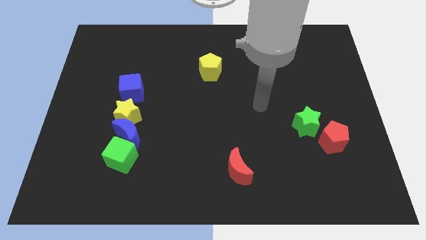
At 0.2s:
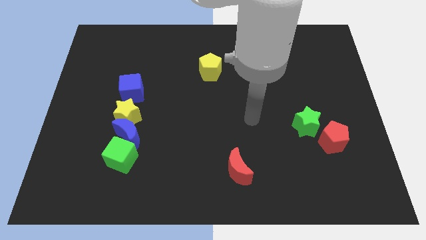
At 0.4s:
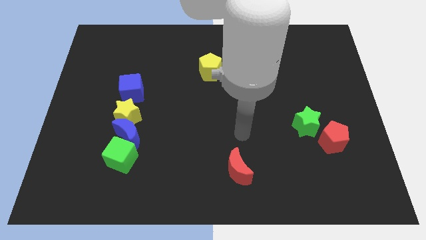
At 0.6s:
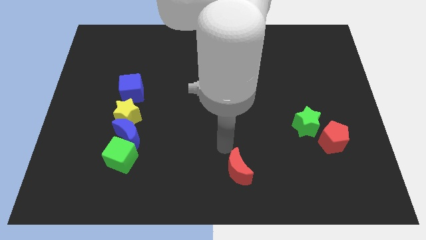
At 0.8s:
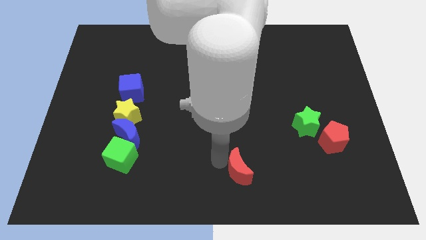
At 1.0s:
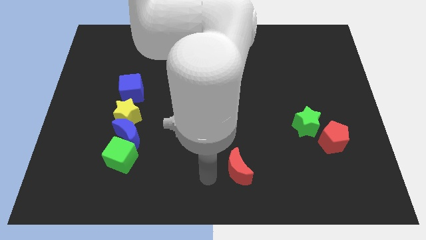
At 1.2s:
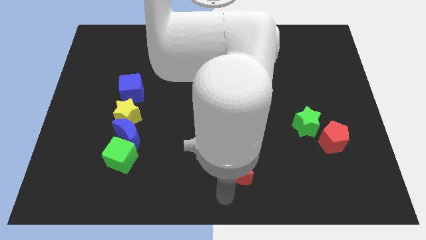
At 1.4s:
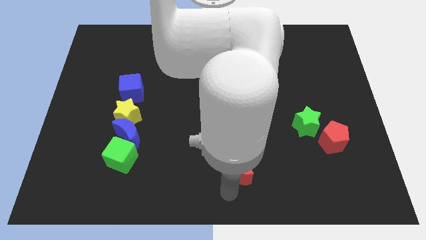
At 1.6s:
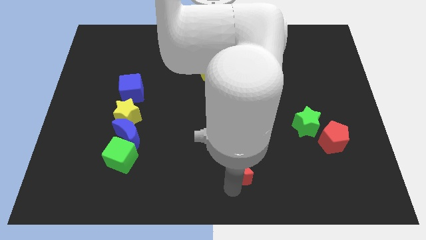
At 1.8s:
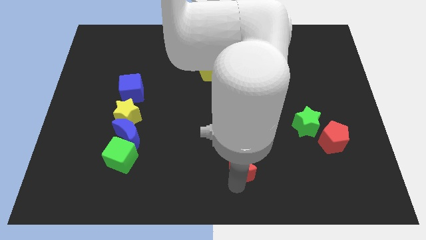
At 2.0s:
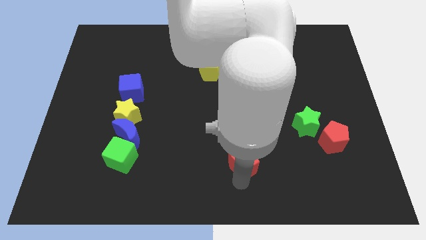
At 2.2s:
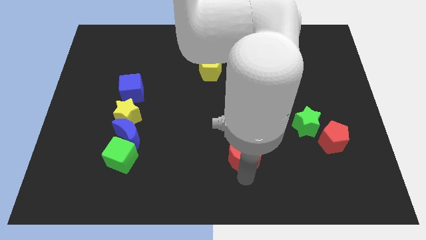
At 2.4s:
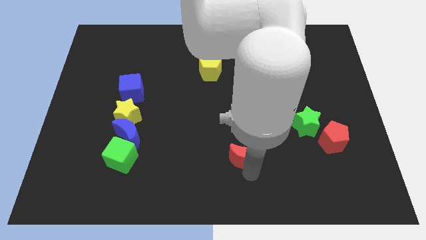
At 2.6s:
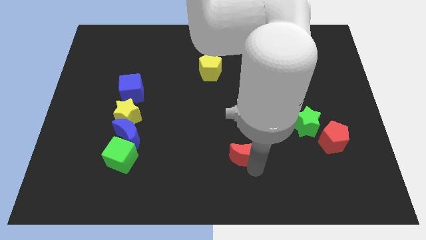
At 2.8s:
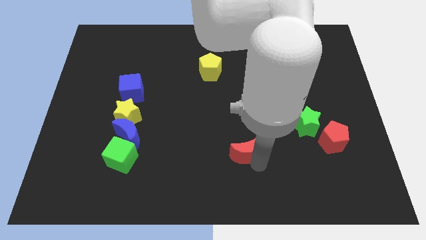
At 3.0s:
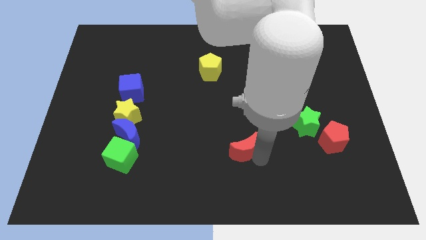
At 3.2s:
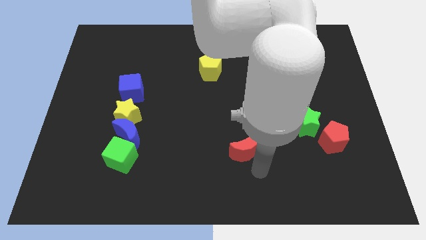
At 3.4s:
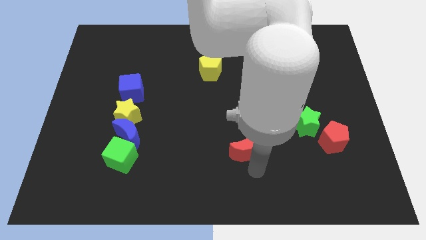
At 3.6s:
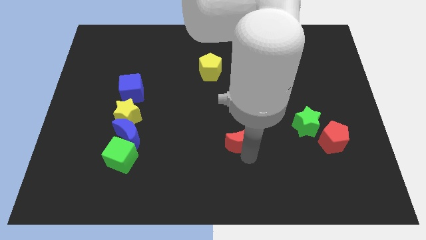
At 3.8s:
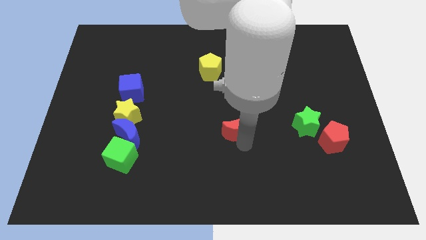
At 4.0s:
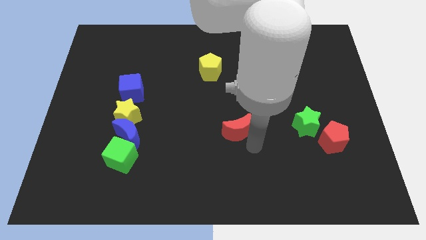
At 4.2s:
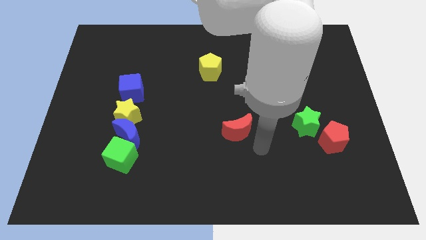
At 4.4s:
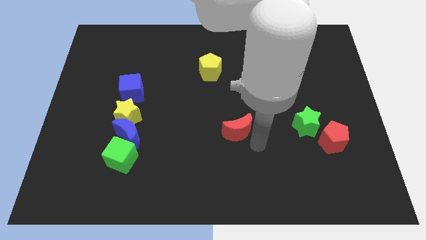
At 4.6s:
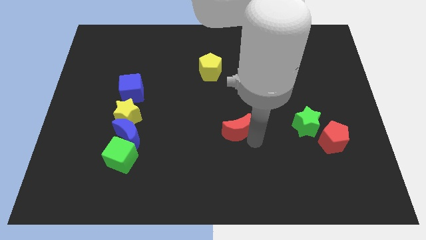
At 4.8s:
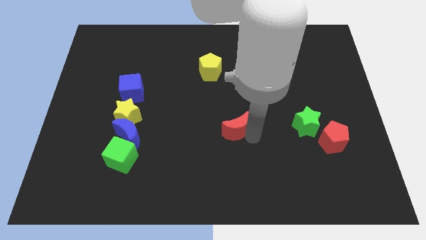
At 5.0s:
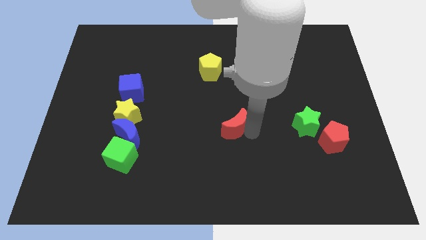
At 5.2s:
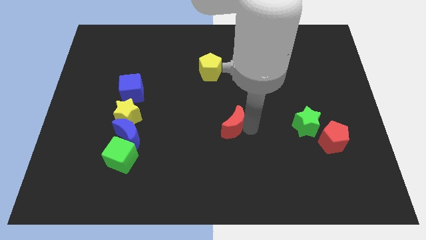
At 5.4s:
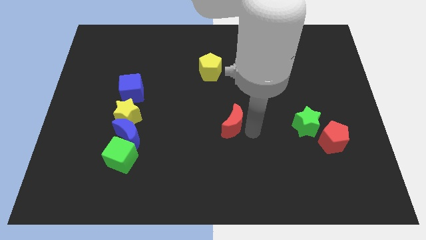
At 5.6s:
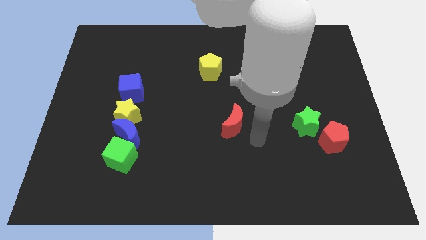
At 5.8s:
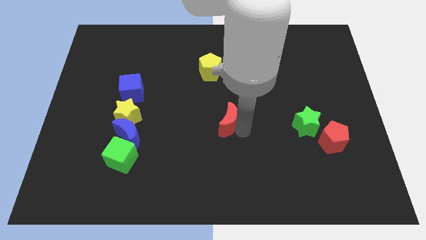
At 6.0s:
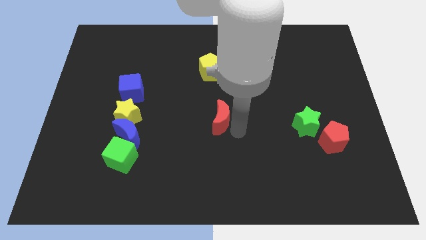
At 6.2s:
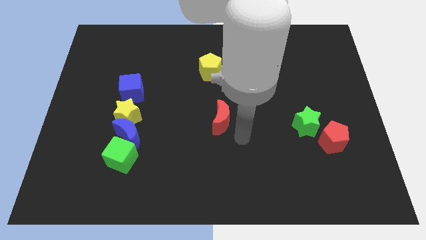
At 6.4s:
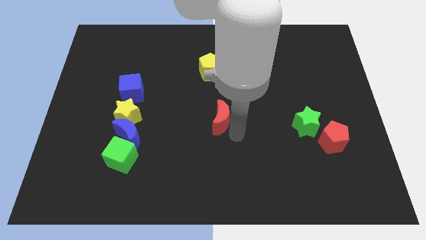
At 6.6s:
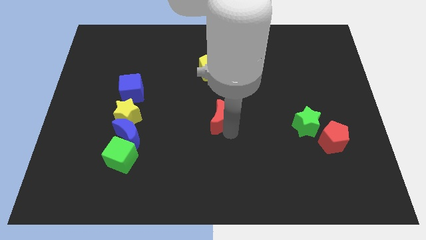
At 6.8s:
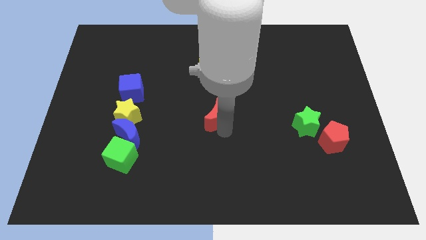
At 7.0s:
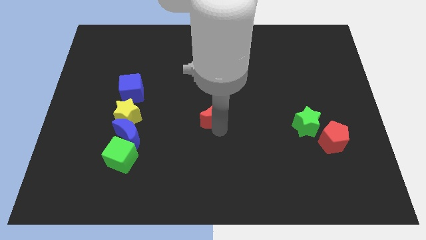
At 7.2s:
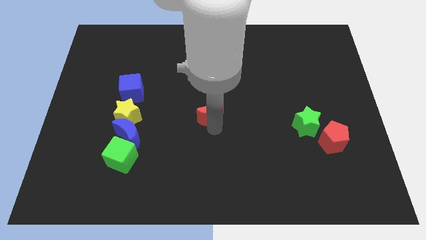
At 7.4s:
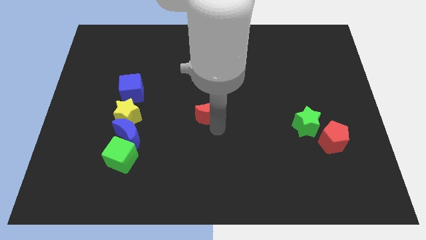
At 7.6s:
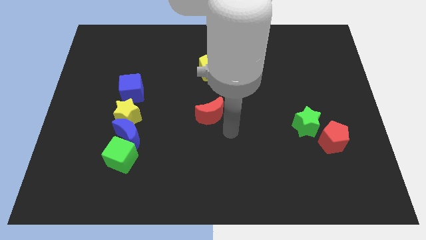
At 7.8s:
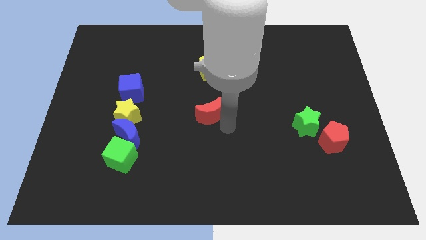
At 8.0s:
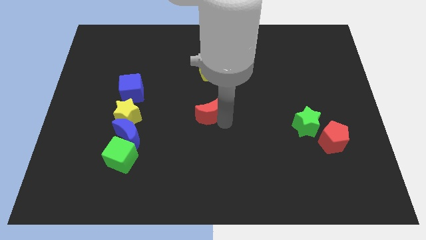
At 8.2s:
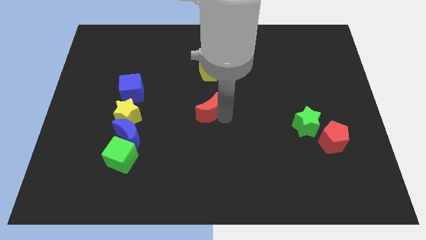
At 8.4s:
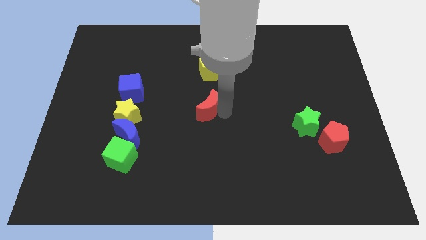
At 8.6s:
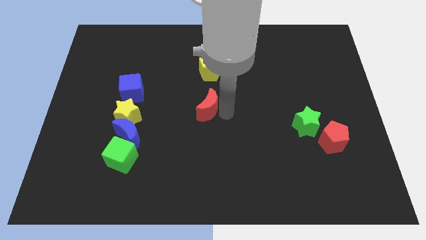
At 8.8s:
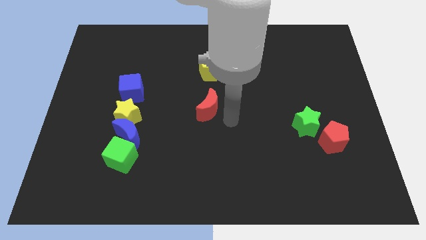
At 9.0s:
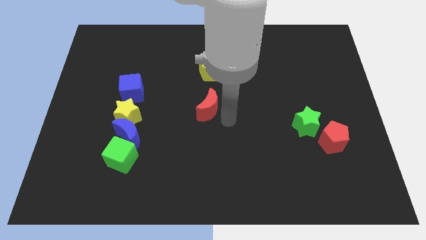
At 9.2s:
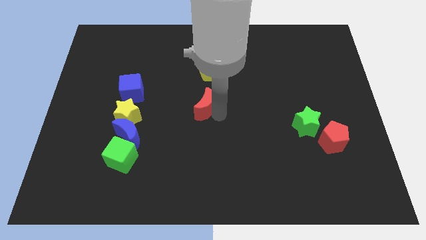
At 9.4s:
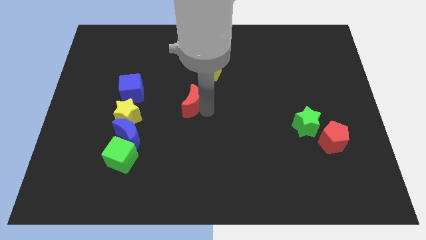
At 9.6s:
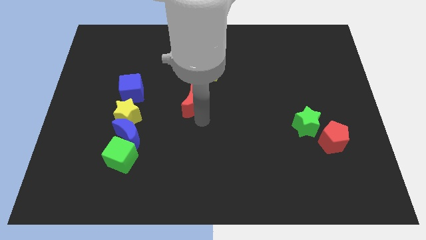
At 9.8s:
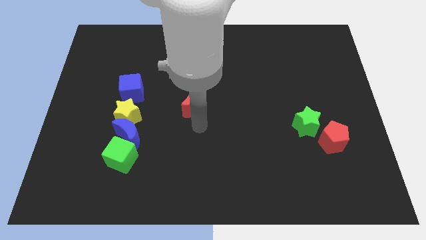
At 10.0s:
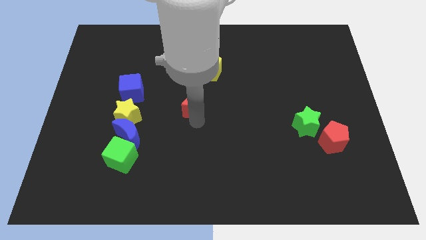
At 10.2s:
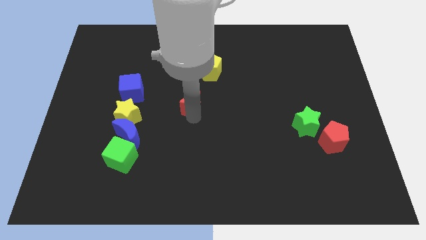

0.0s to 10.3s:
slide the red moon to the bottom left side of the yellow pentagon

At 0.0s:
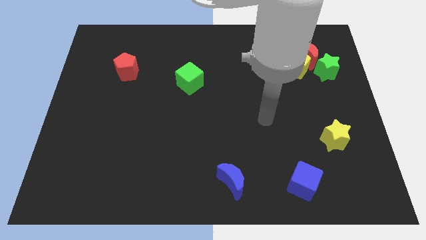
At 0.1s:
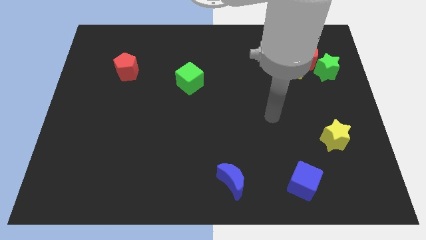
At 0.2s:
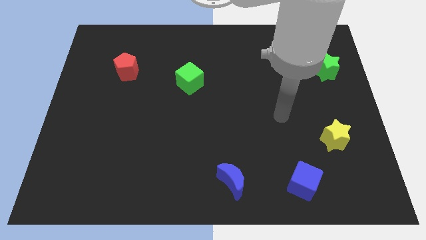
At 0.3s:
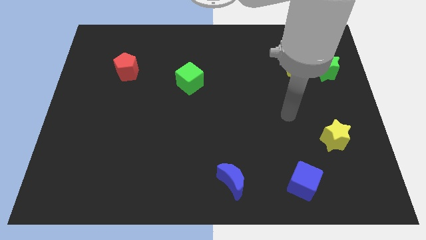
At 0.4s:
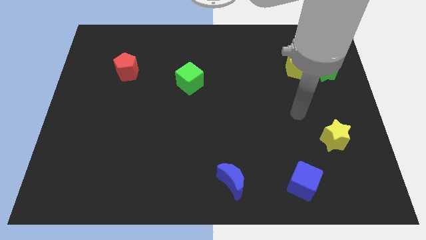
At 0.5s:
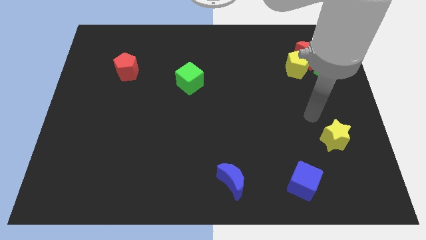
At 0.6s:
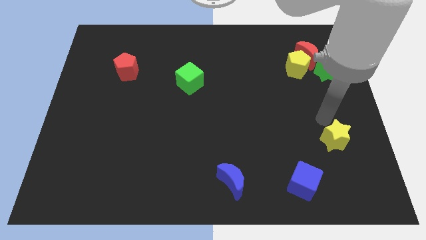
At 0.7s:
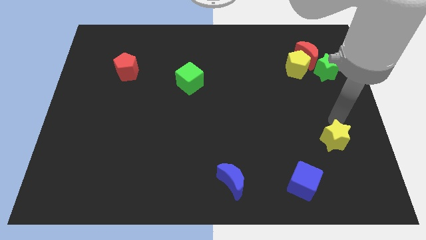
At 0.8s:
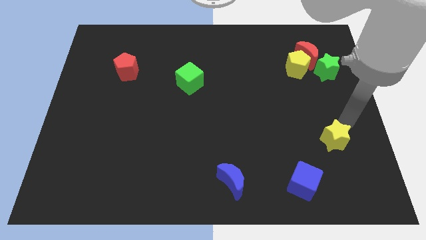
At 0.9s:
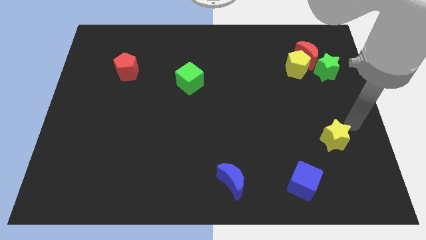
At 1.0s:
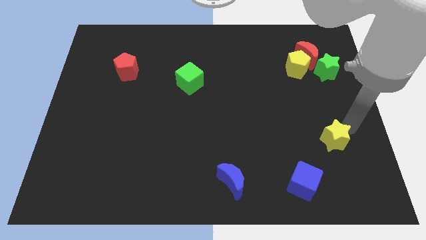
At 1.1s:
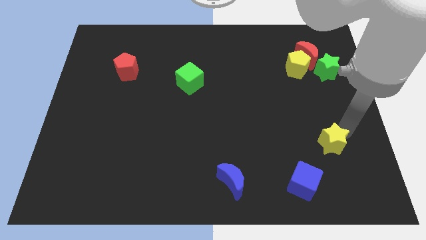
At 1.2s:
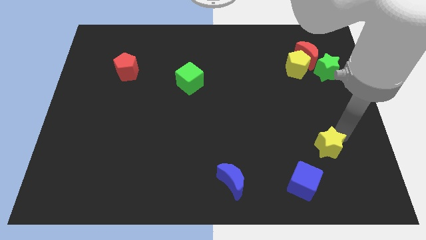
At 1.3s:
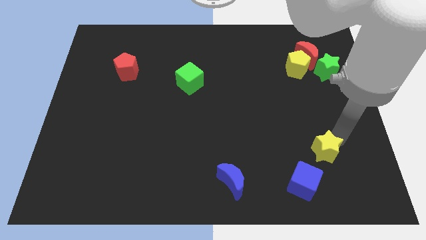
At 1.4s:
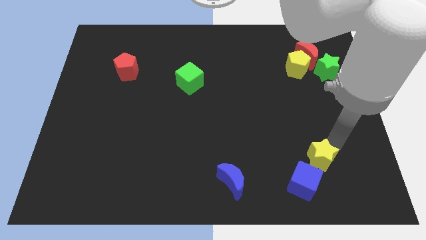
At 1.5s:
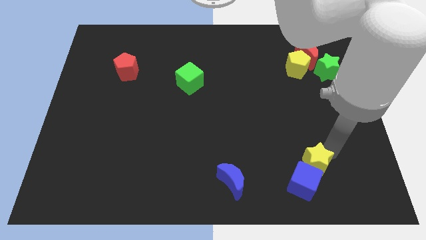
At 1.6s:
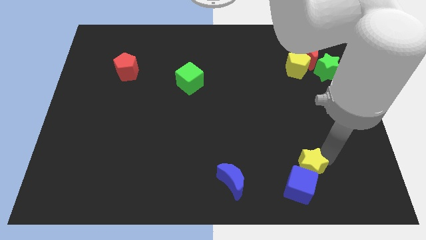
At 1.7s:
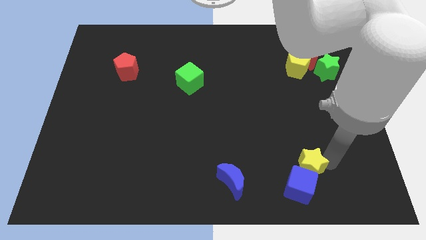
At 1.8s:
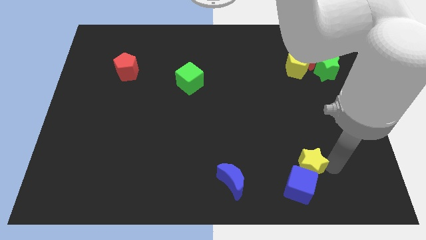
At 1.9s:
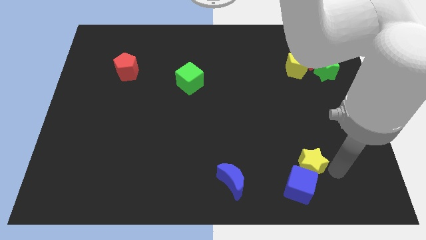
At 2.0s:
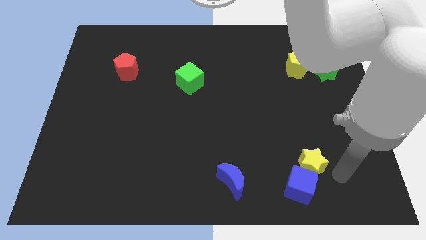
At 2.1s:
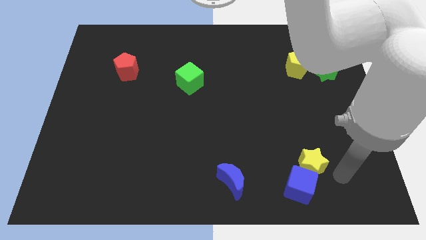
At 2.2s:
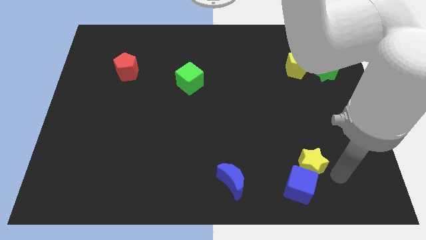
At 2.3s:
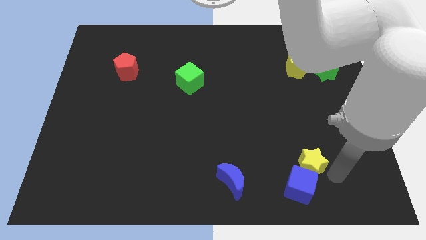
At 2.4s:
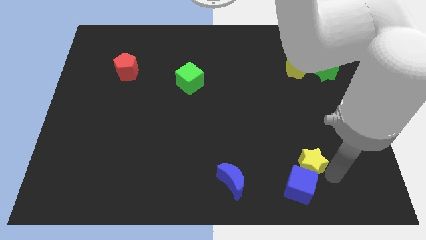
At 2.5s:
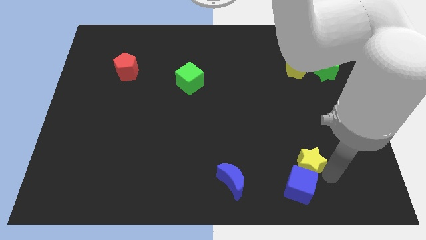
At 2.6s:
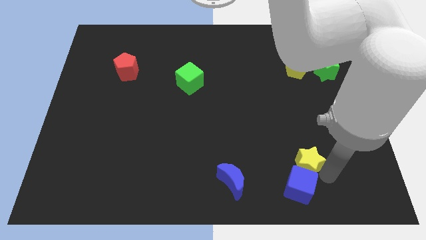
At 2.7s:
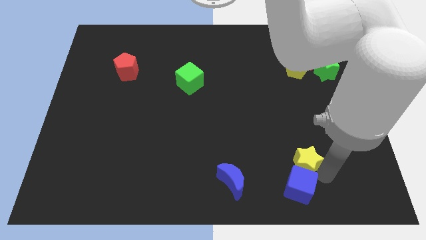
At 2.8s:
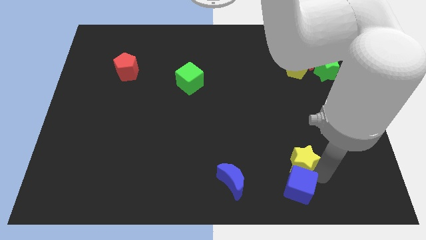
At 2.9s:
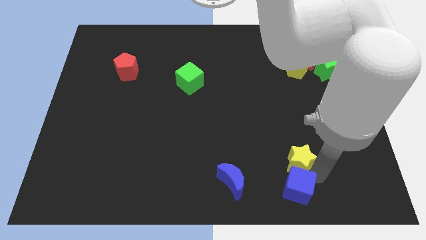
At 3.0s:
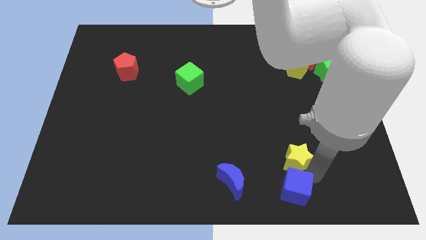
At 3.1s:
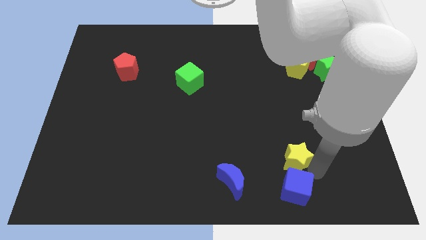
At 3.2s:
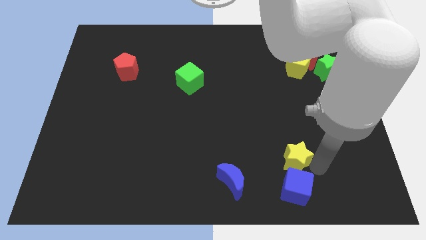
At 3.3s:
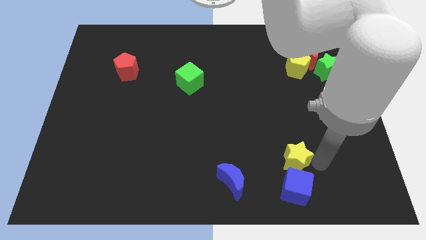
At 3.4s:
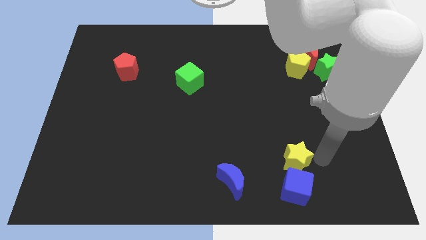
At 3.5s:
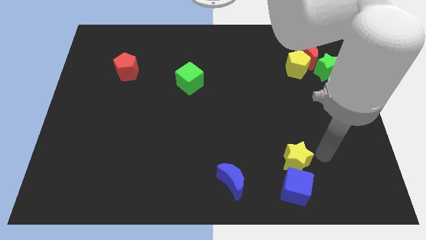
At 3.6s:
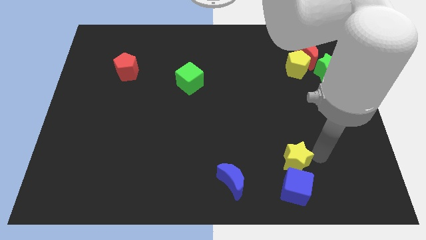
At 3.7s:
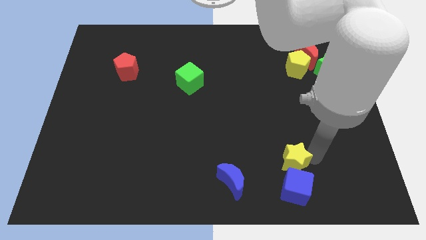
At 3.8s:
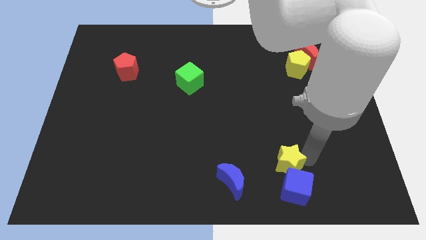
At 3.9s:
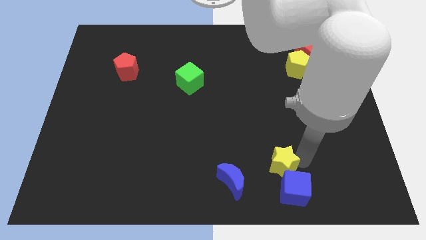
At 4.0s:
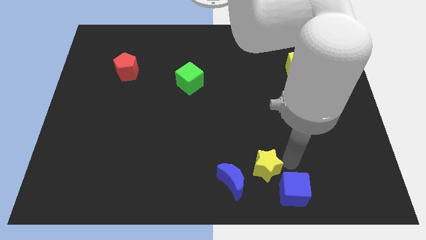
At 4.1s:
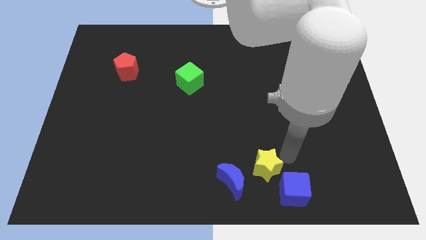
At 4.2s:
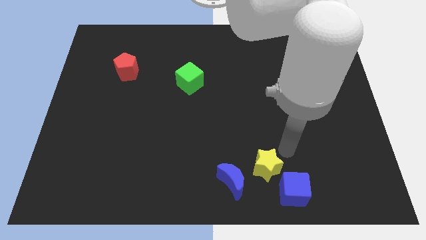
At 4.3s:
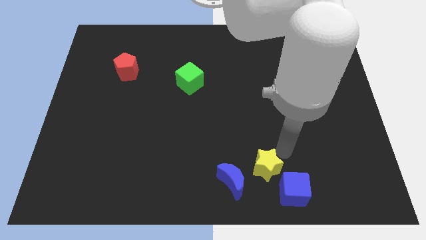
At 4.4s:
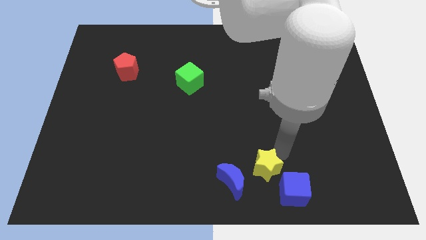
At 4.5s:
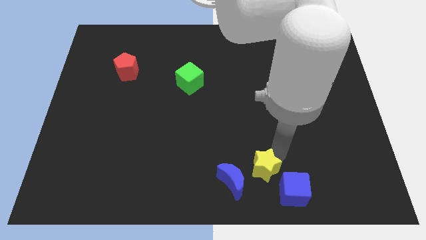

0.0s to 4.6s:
move the yellow star left of the blue cube
